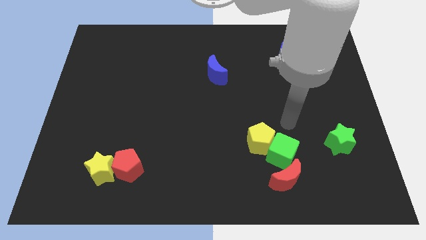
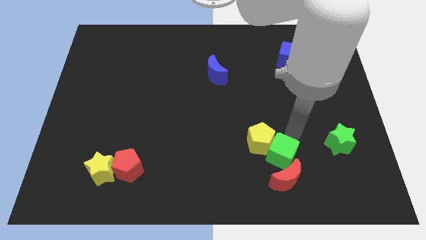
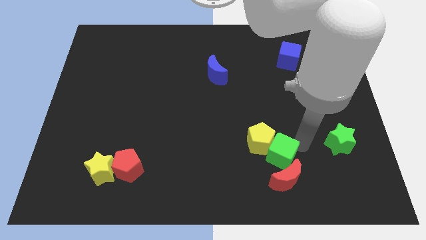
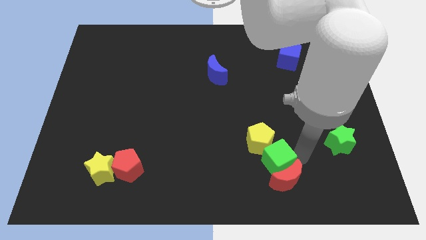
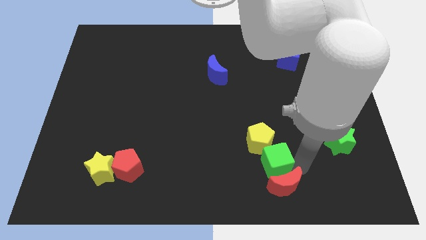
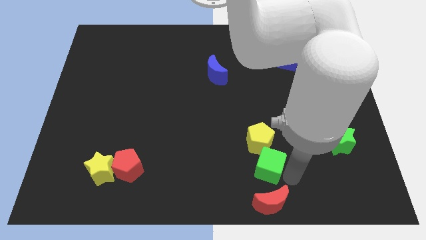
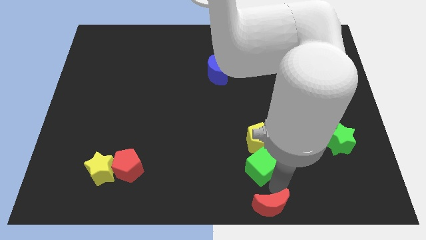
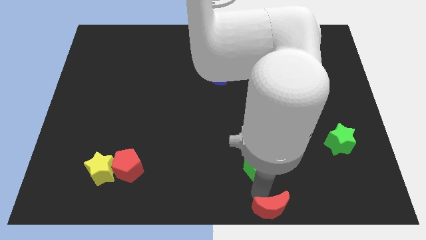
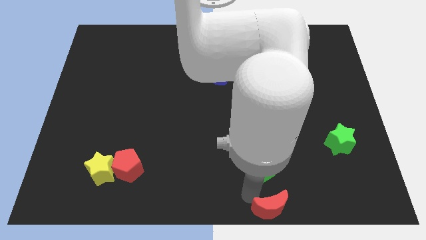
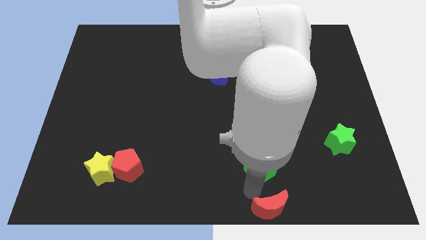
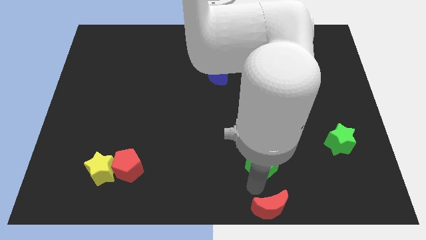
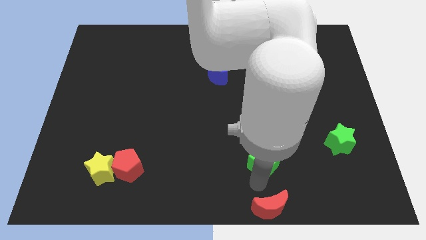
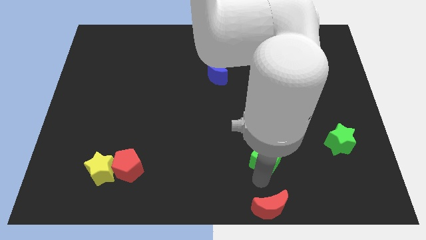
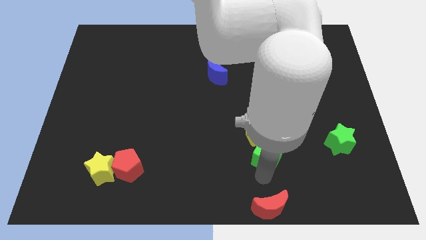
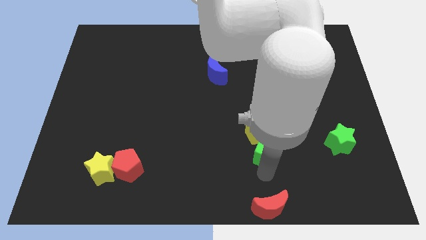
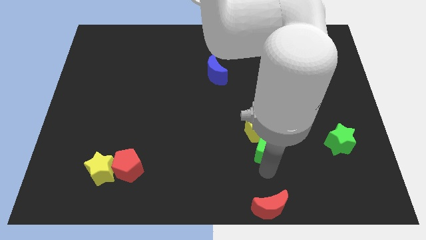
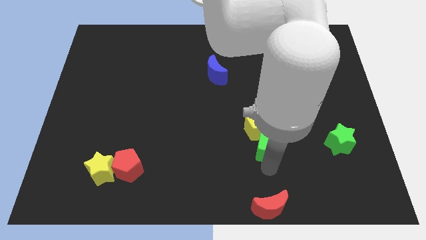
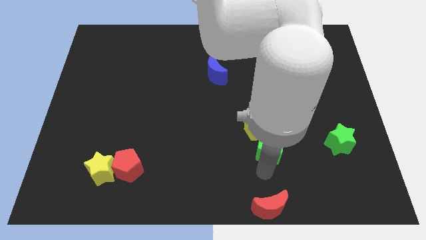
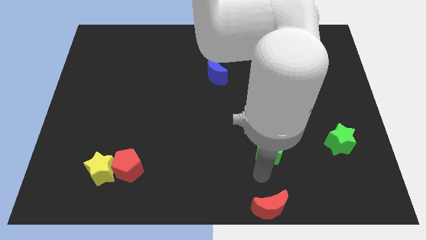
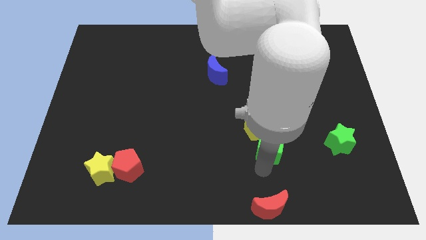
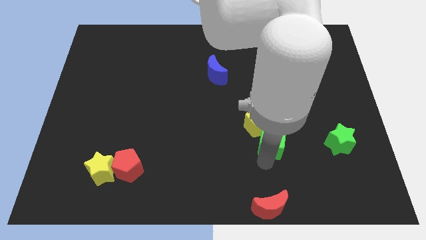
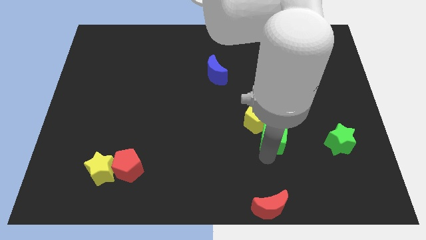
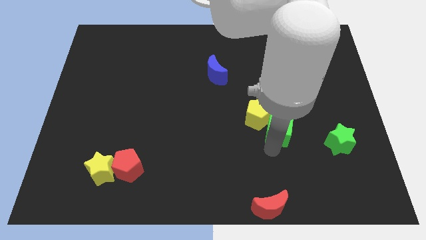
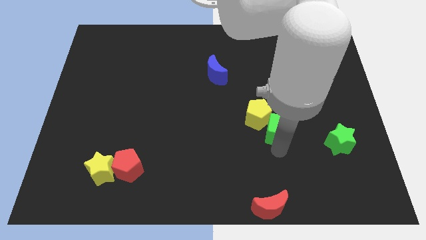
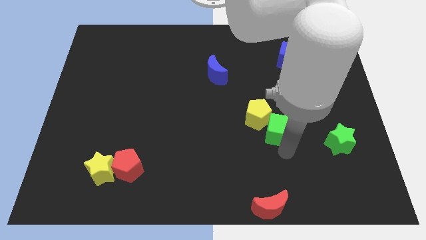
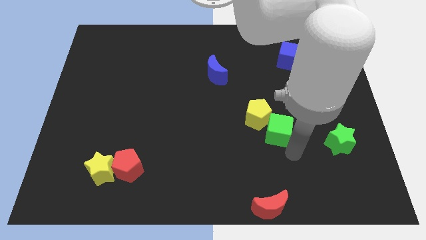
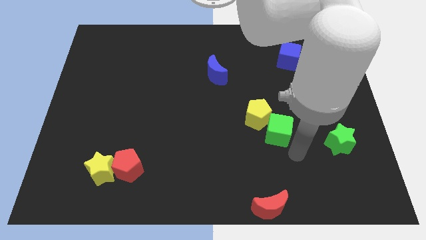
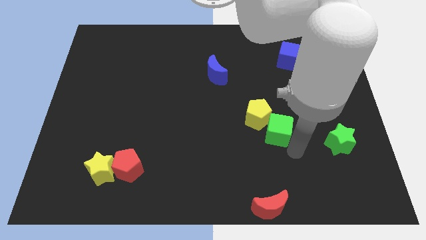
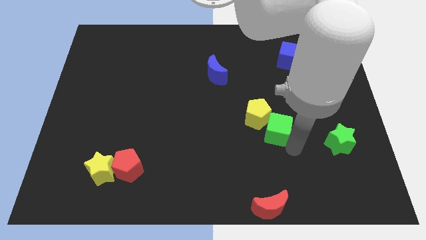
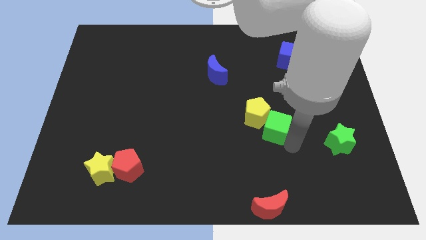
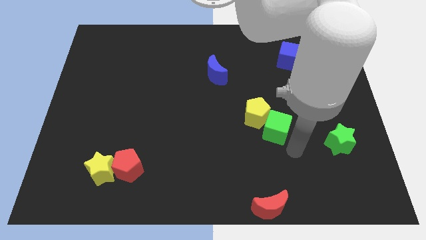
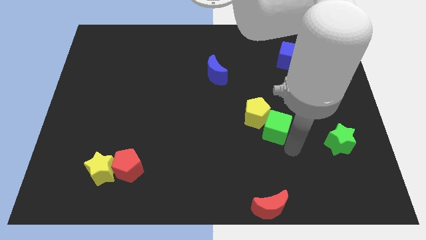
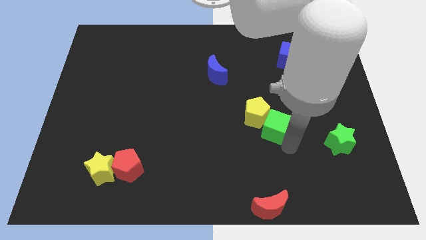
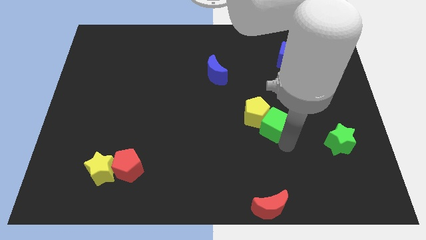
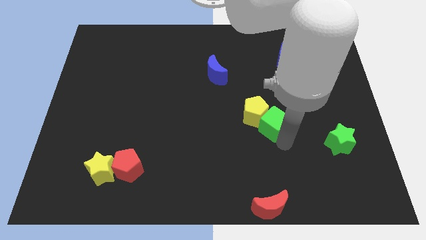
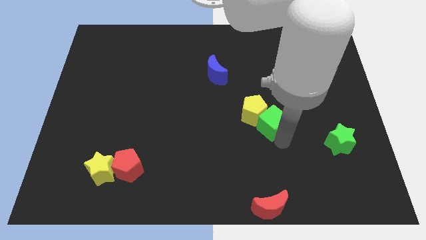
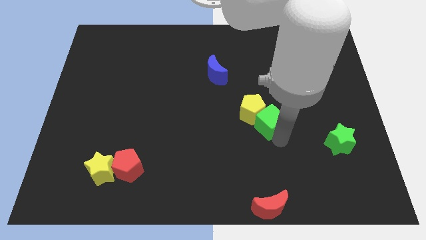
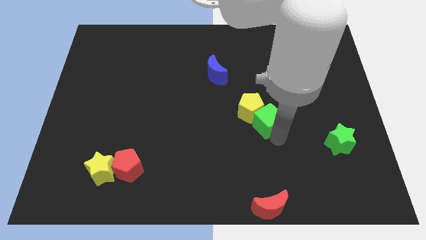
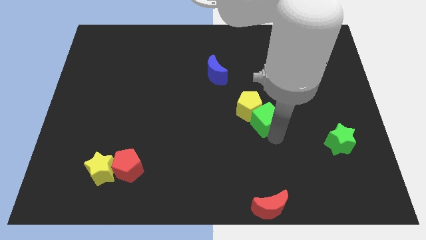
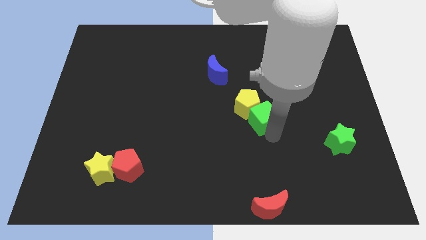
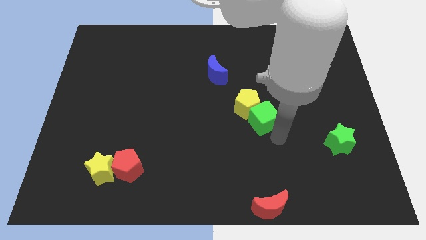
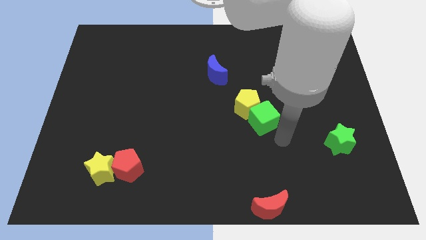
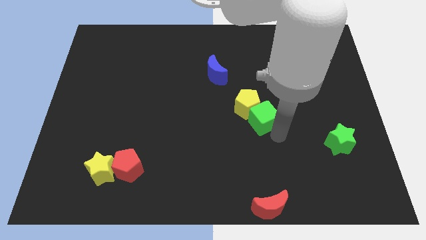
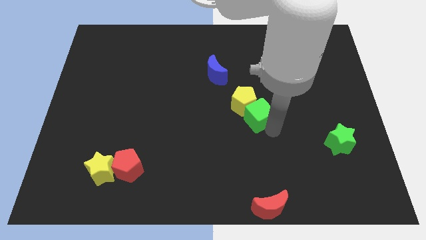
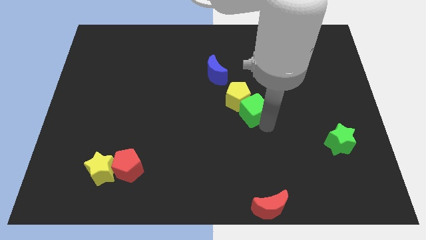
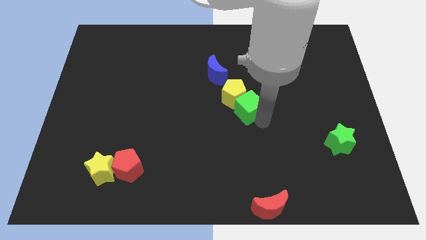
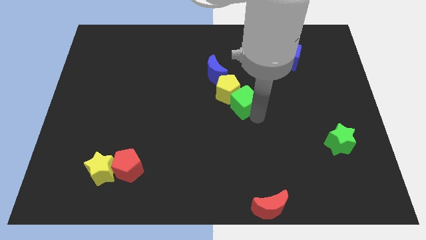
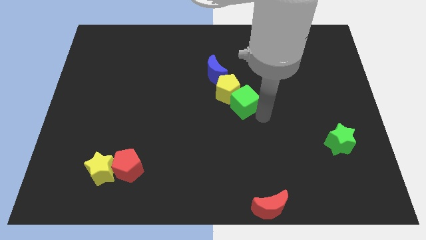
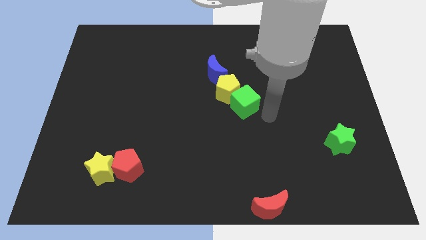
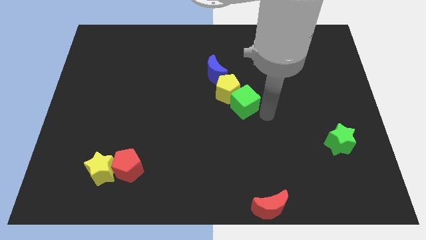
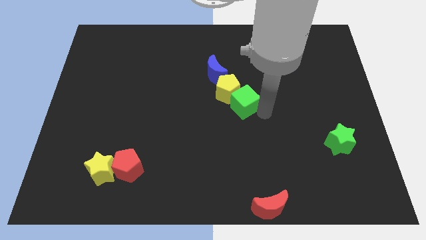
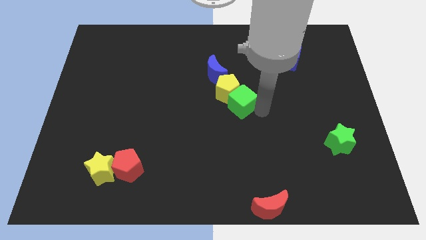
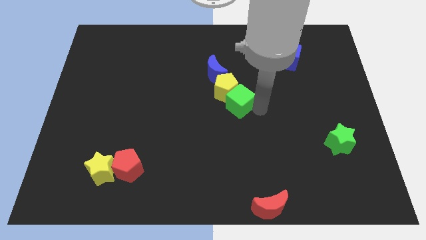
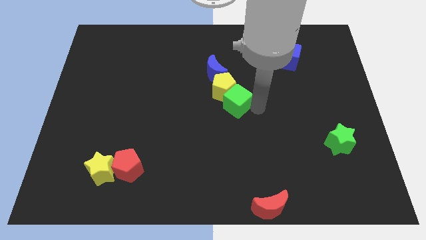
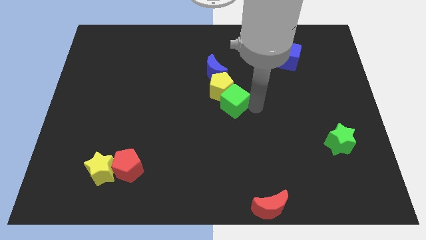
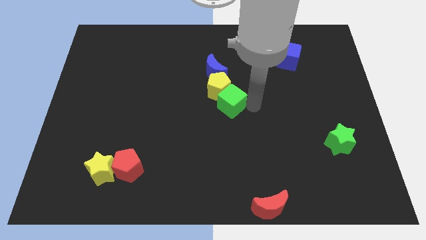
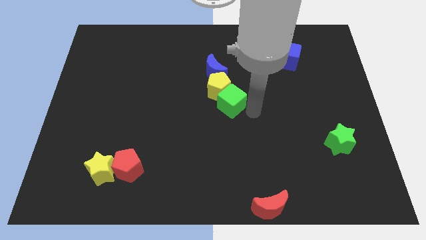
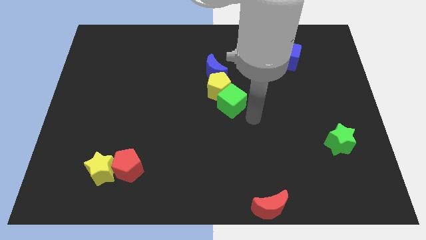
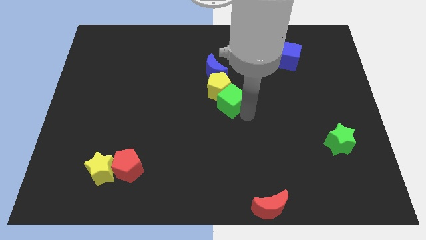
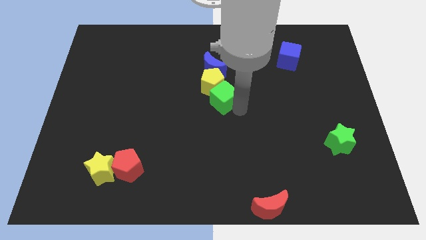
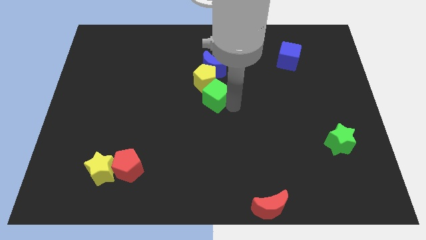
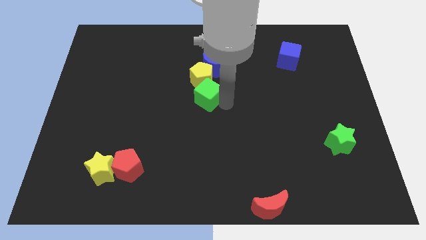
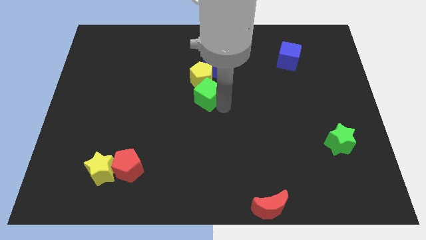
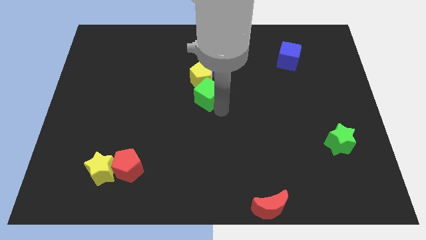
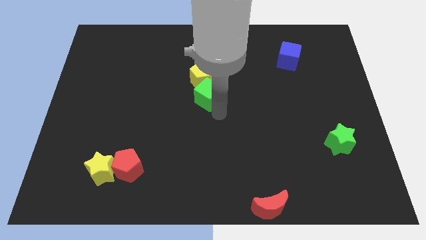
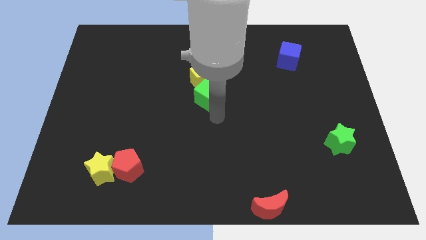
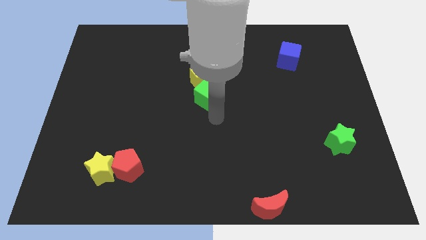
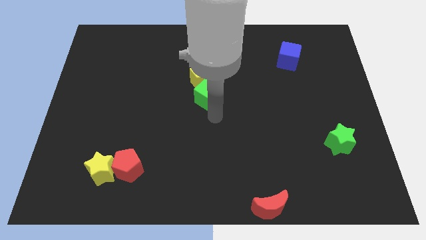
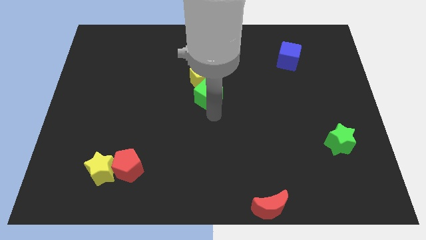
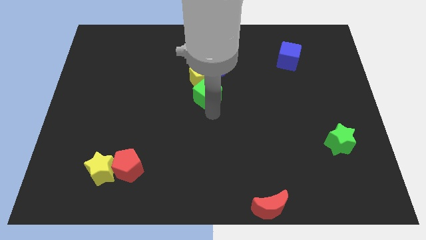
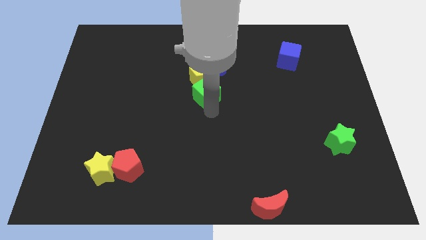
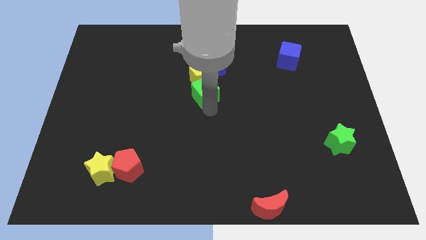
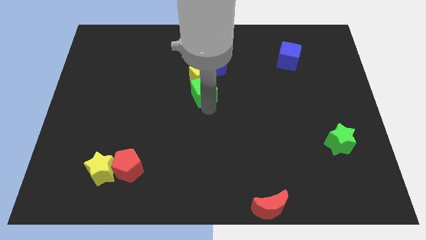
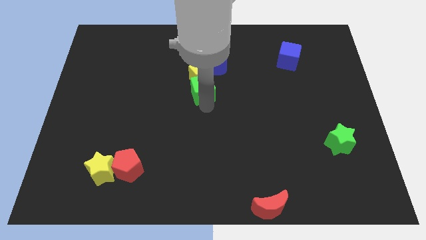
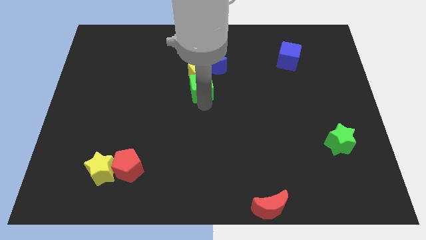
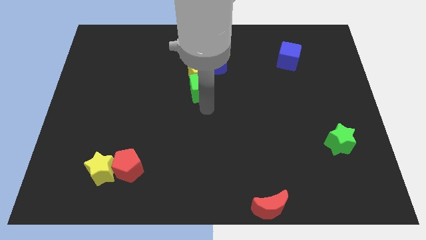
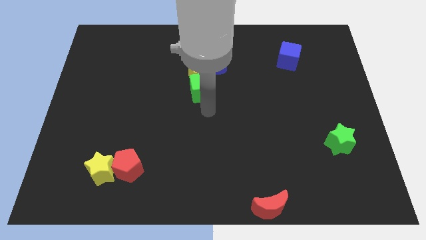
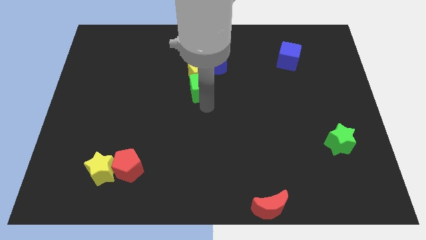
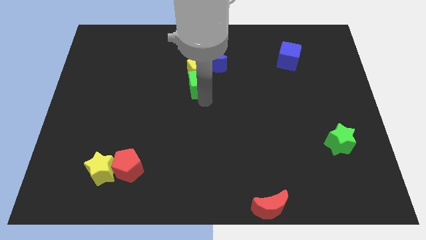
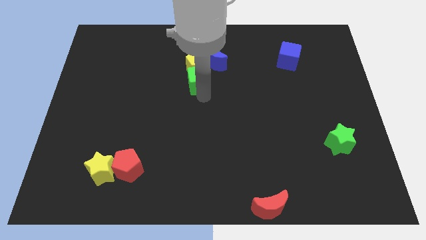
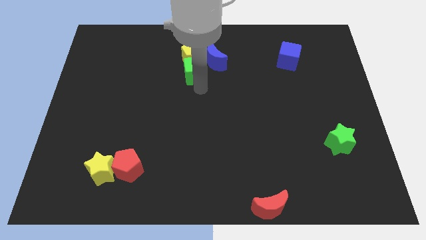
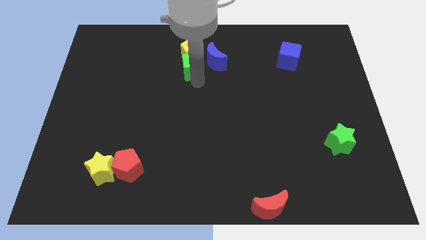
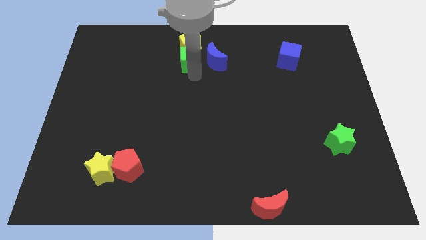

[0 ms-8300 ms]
push the green cube to the top left side of the blue moon
